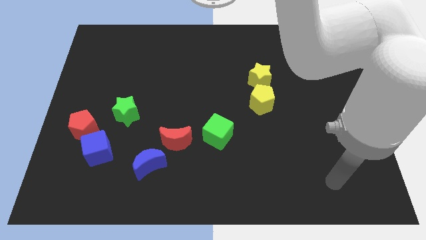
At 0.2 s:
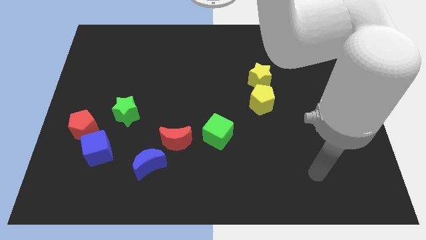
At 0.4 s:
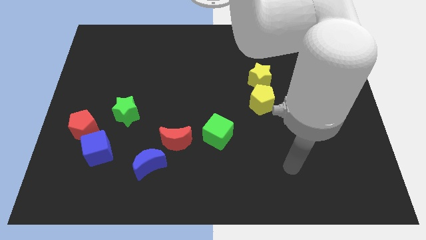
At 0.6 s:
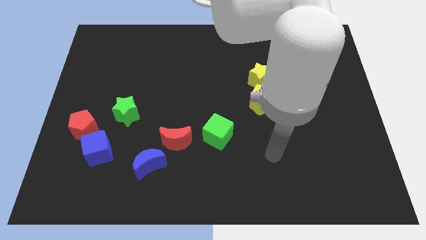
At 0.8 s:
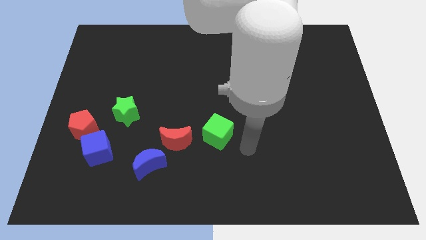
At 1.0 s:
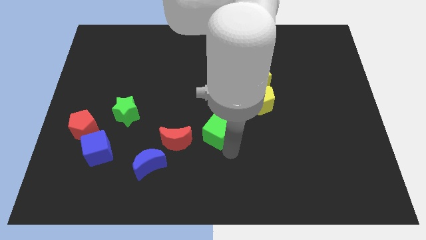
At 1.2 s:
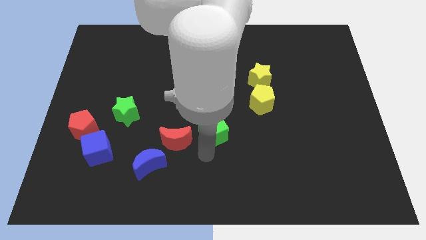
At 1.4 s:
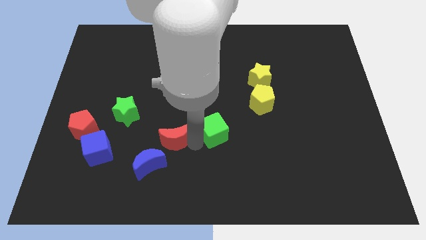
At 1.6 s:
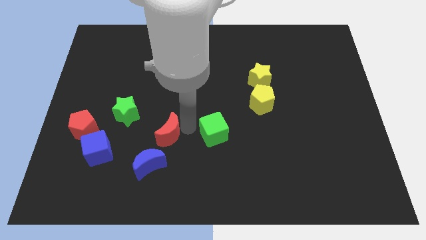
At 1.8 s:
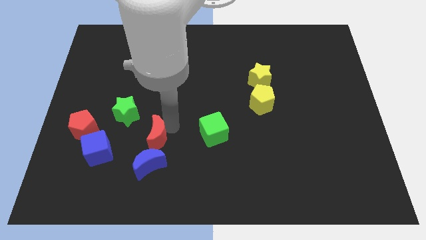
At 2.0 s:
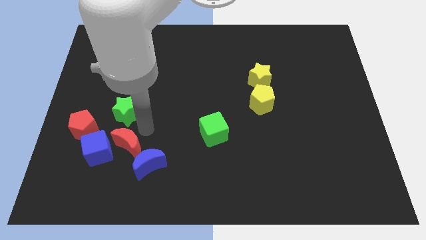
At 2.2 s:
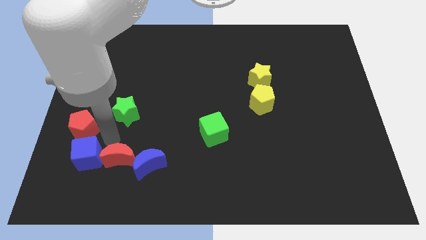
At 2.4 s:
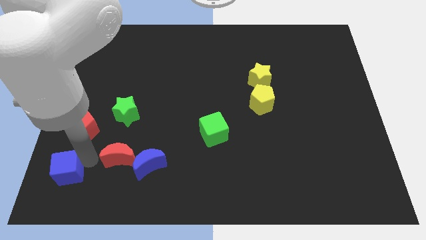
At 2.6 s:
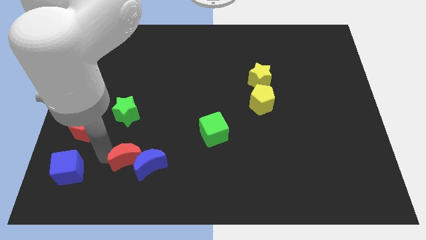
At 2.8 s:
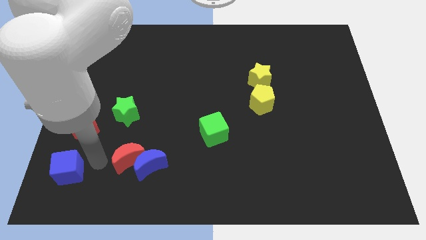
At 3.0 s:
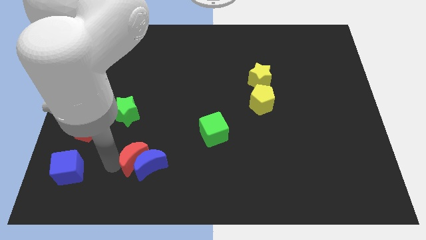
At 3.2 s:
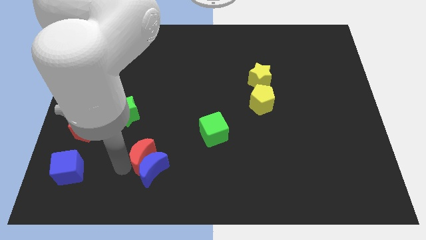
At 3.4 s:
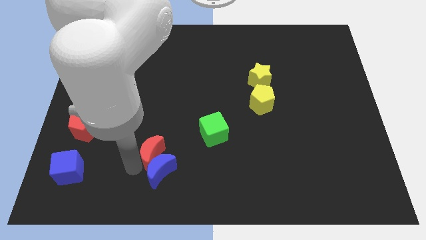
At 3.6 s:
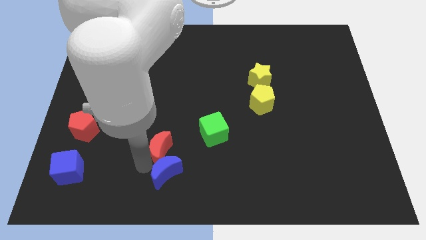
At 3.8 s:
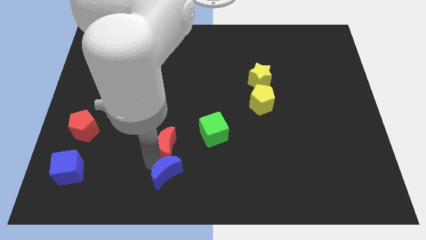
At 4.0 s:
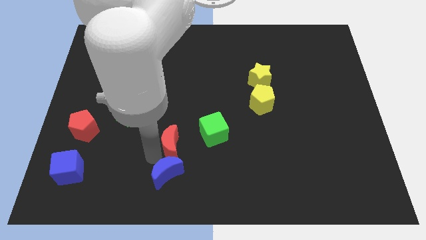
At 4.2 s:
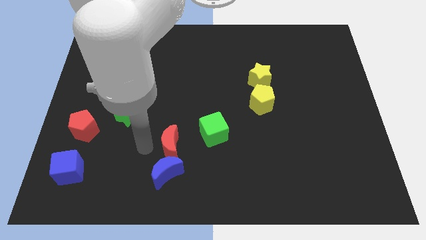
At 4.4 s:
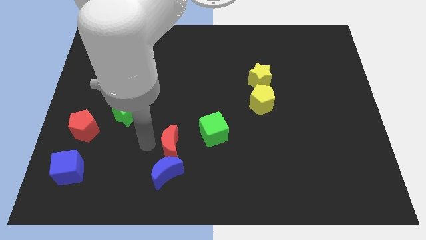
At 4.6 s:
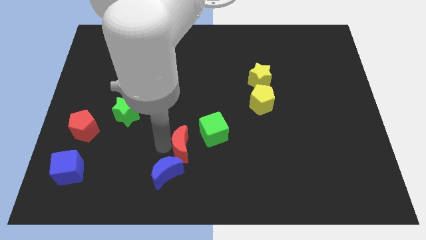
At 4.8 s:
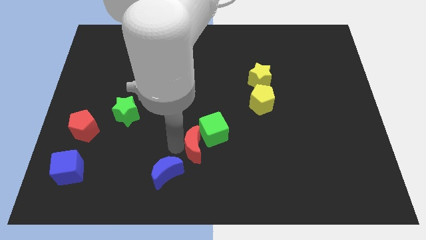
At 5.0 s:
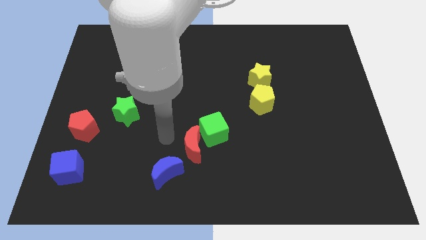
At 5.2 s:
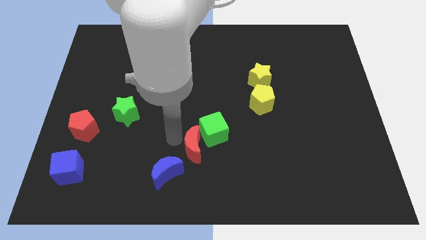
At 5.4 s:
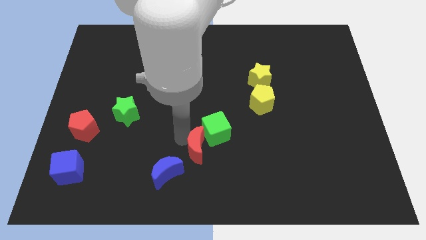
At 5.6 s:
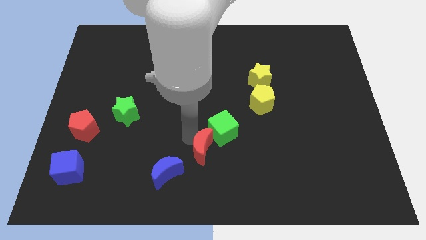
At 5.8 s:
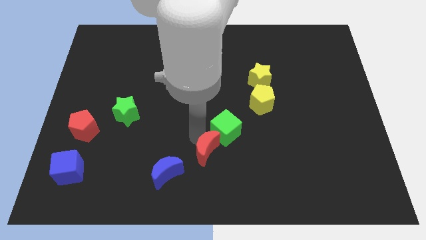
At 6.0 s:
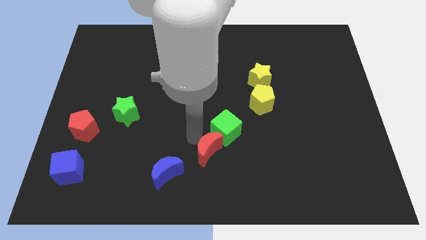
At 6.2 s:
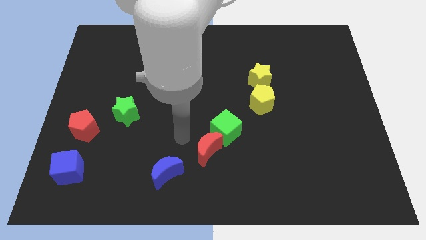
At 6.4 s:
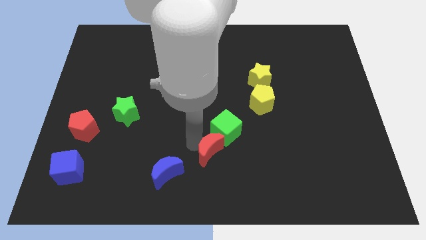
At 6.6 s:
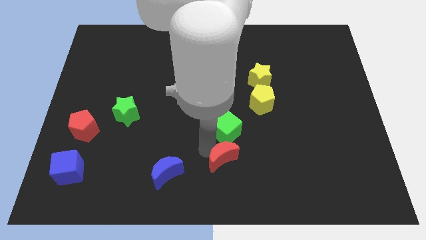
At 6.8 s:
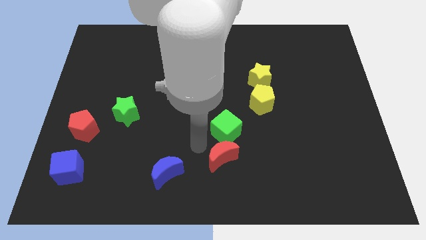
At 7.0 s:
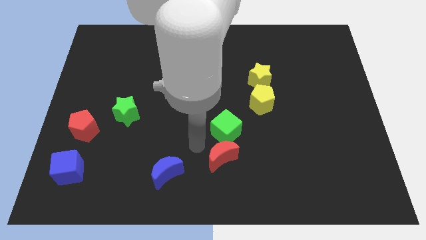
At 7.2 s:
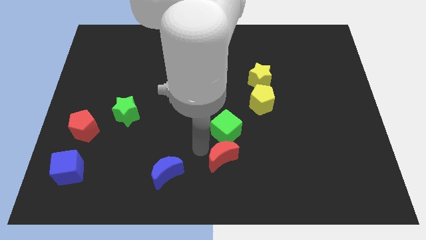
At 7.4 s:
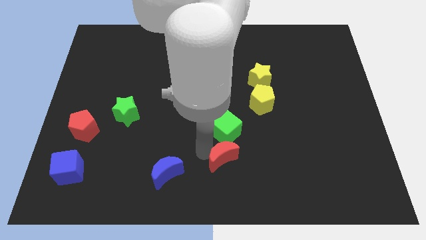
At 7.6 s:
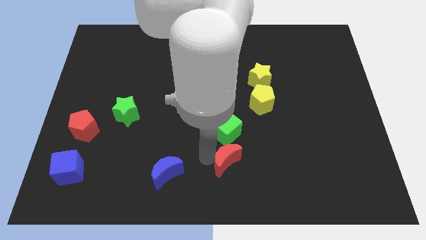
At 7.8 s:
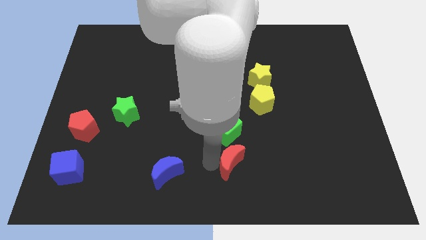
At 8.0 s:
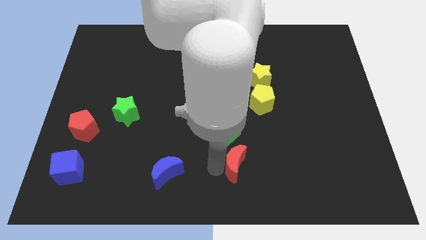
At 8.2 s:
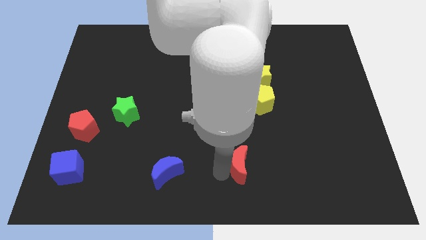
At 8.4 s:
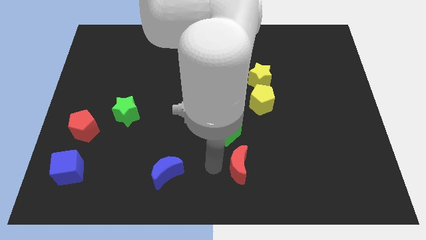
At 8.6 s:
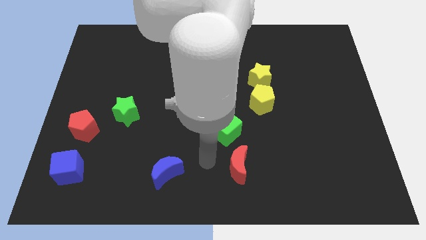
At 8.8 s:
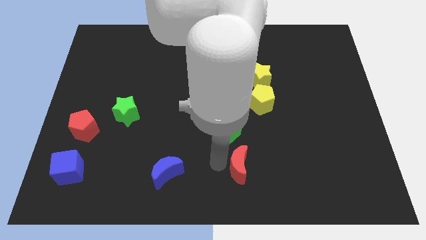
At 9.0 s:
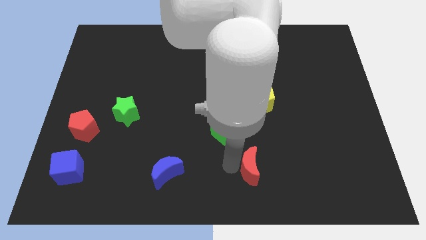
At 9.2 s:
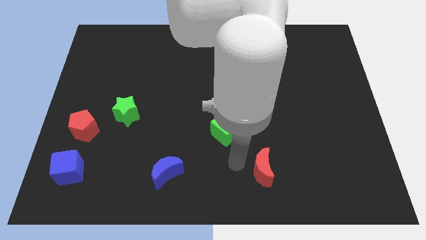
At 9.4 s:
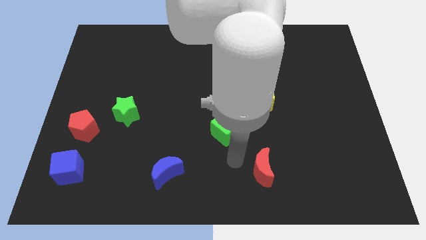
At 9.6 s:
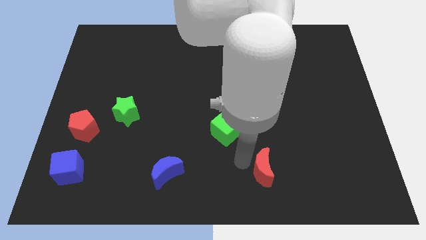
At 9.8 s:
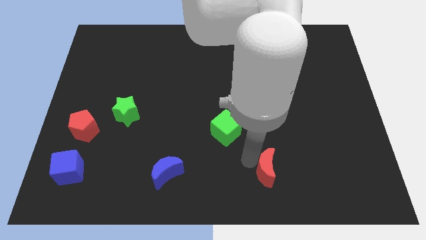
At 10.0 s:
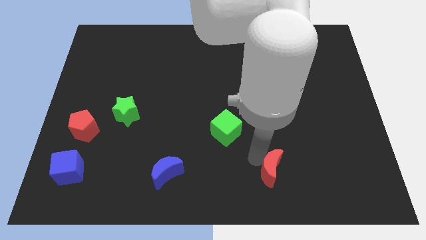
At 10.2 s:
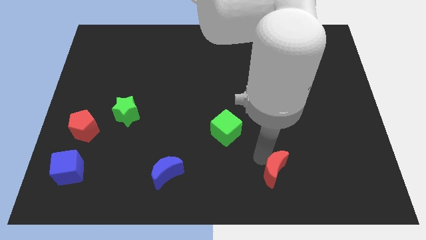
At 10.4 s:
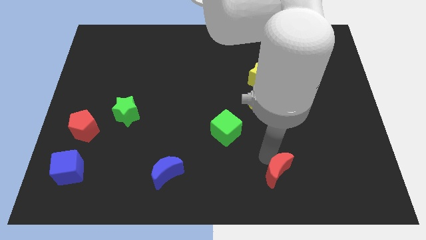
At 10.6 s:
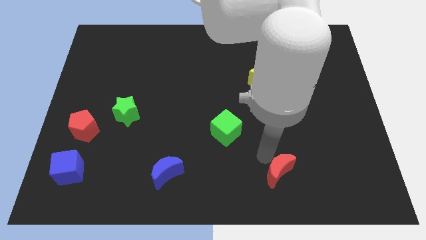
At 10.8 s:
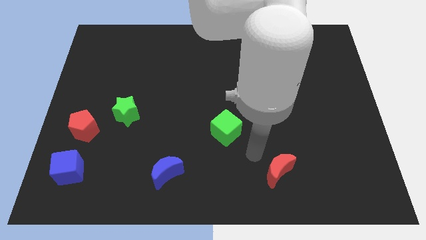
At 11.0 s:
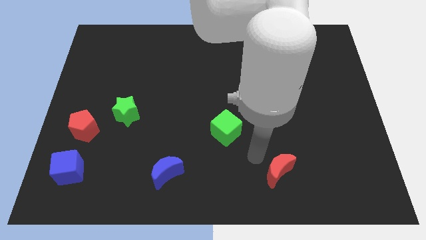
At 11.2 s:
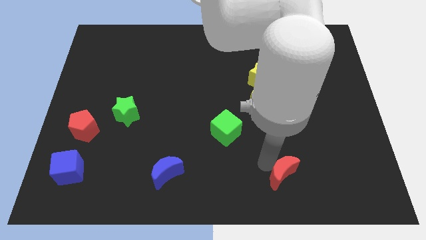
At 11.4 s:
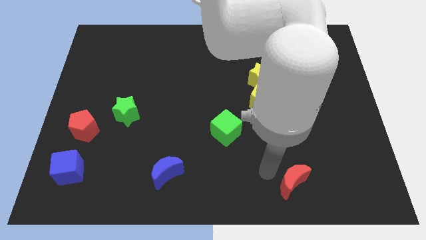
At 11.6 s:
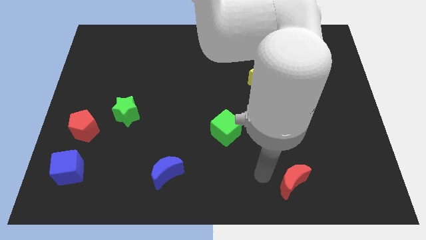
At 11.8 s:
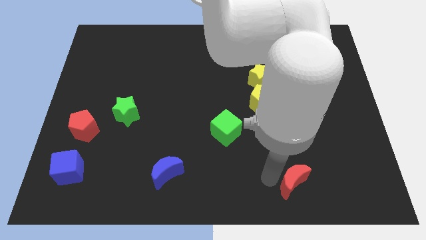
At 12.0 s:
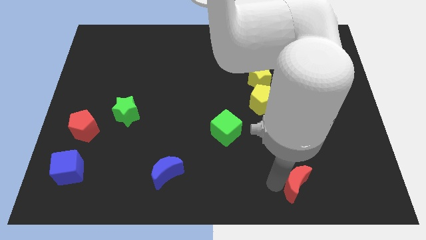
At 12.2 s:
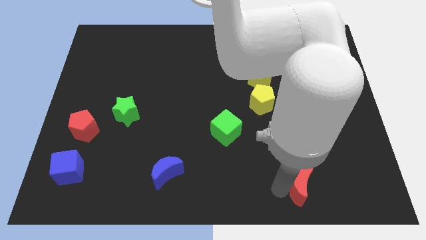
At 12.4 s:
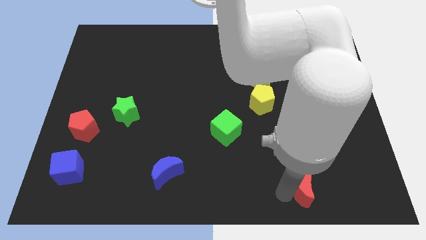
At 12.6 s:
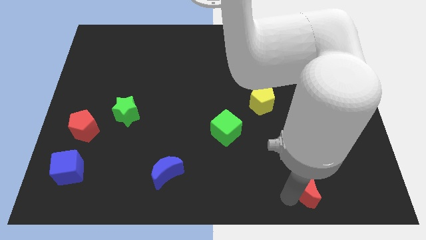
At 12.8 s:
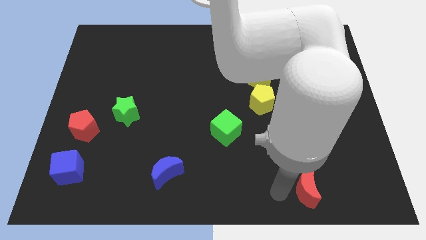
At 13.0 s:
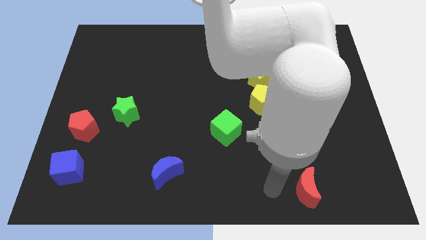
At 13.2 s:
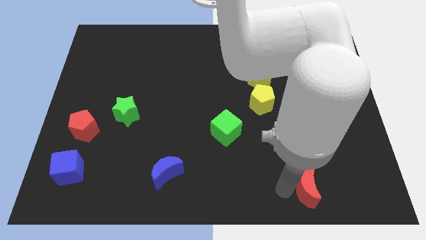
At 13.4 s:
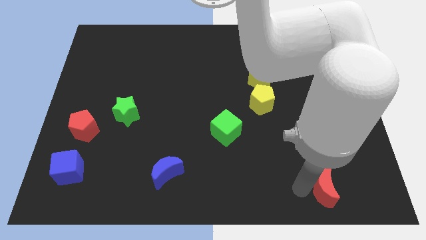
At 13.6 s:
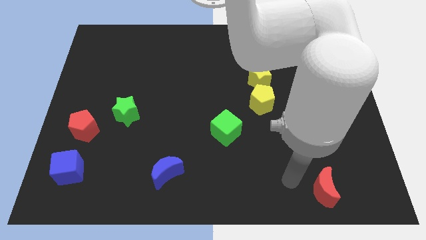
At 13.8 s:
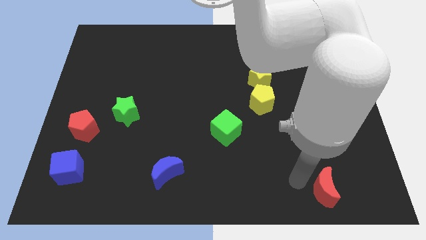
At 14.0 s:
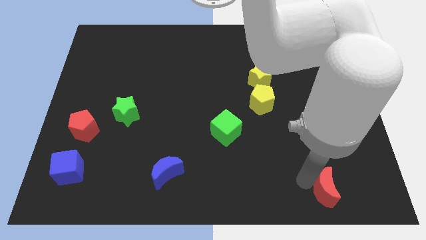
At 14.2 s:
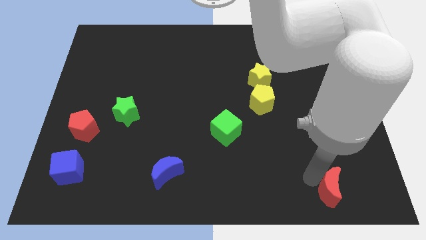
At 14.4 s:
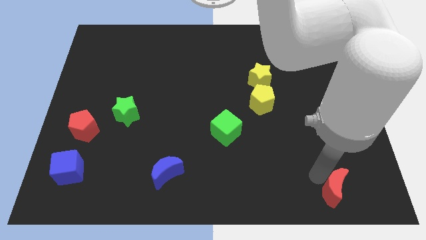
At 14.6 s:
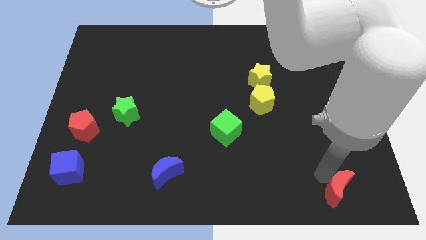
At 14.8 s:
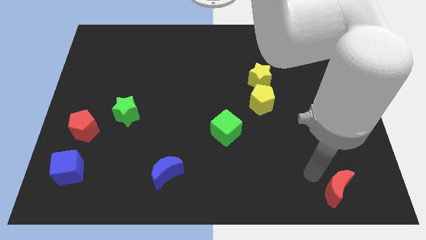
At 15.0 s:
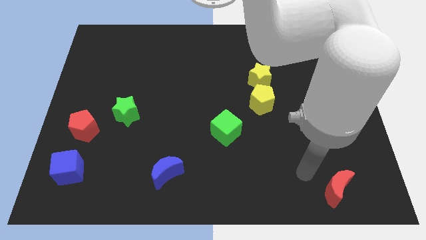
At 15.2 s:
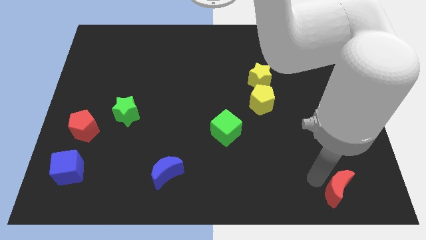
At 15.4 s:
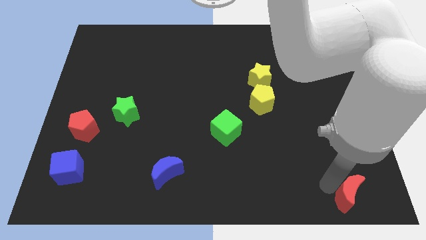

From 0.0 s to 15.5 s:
push the red moon to the lower right corner
